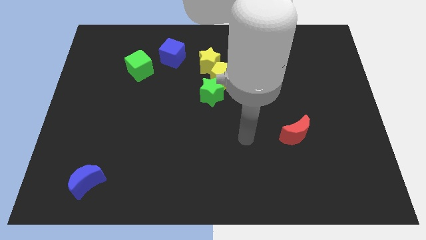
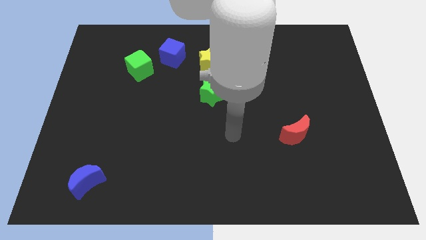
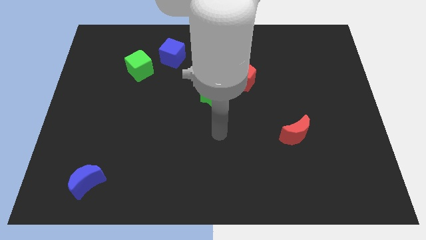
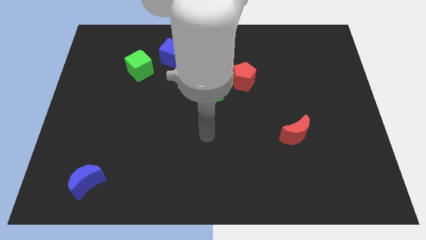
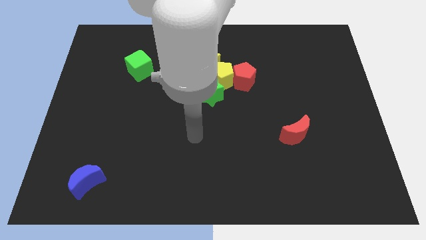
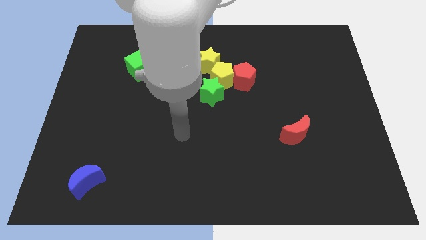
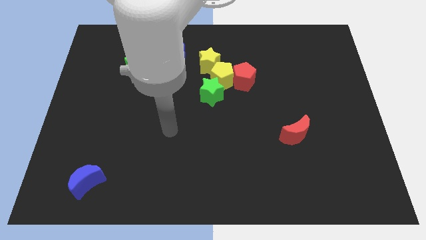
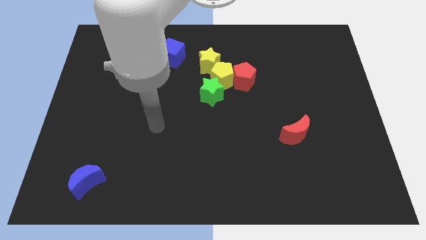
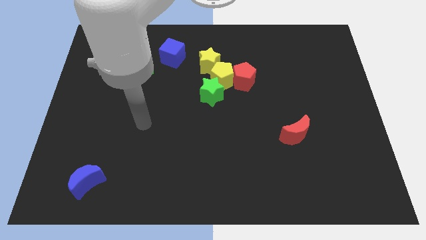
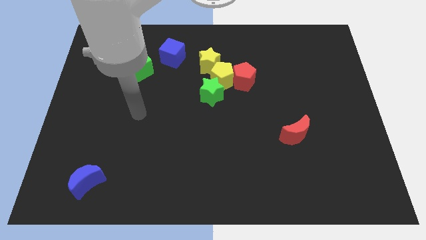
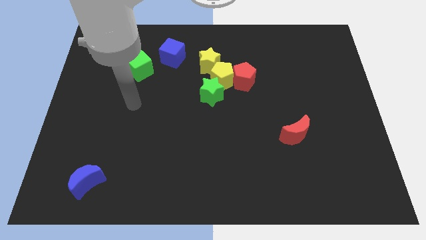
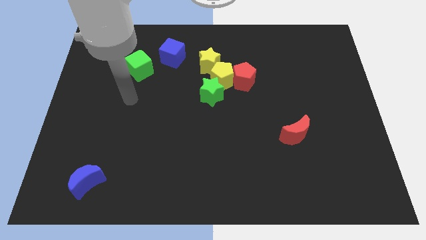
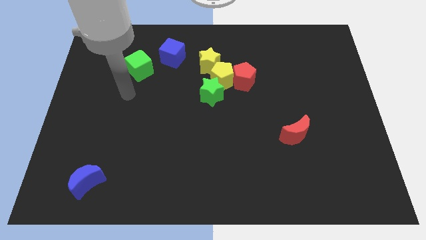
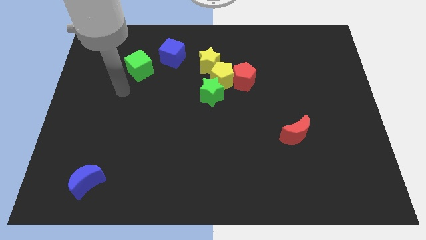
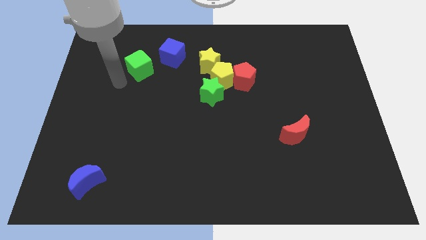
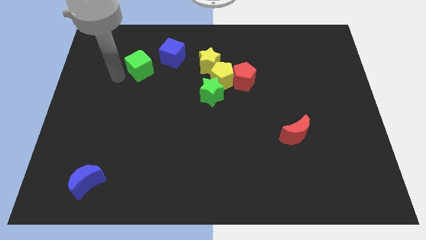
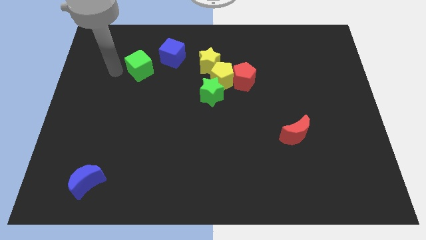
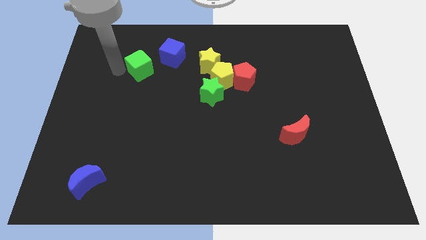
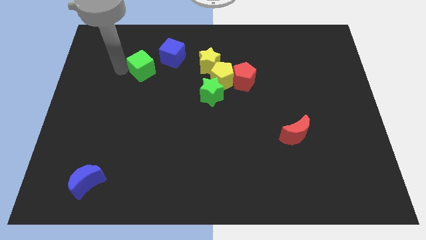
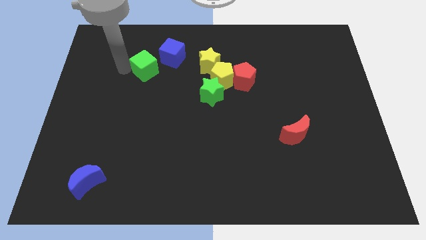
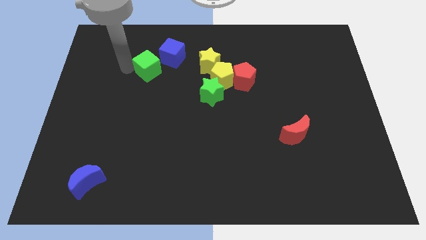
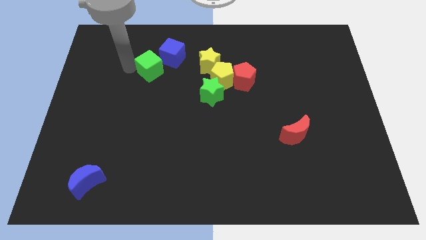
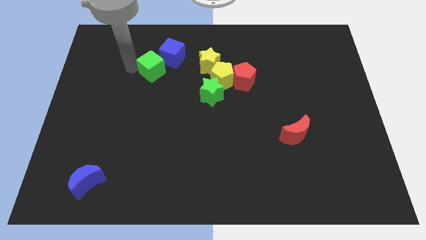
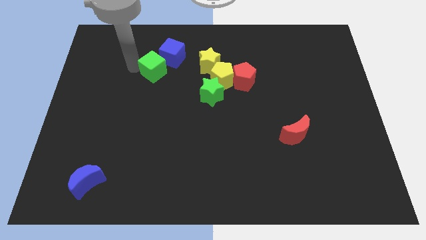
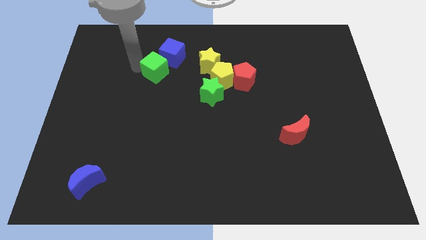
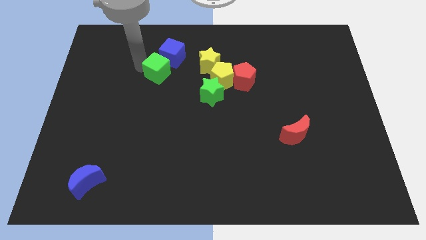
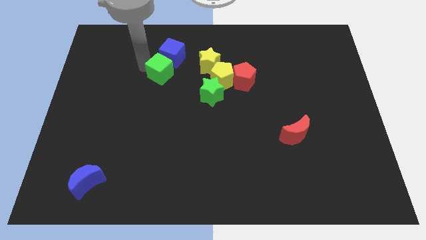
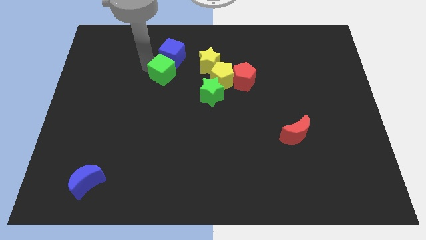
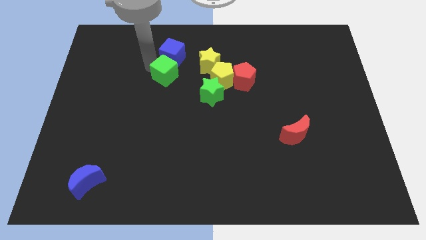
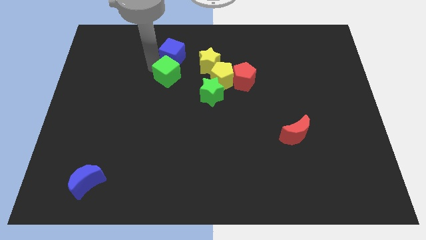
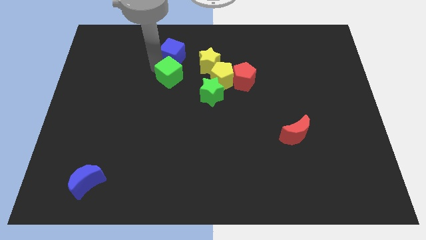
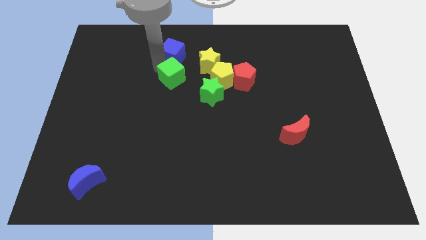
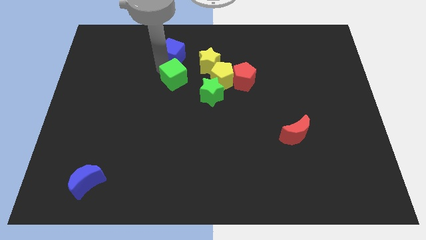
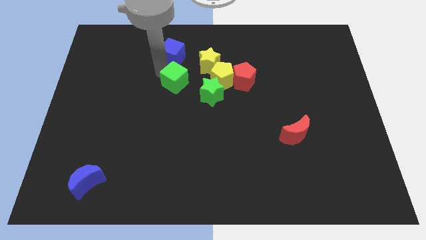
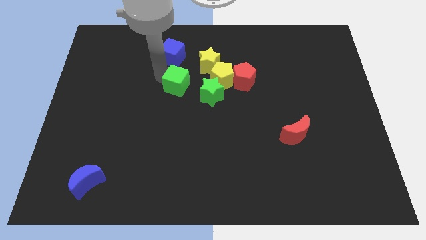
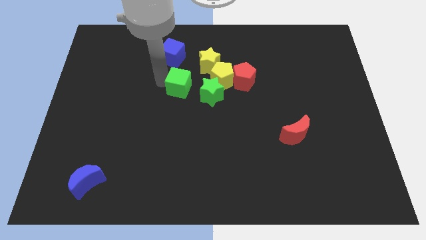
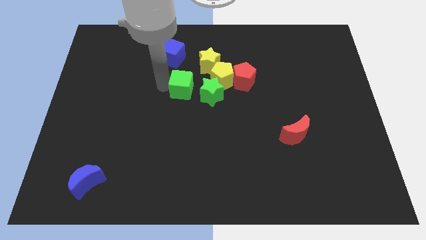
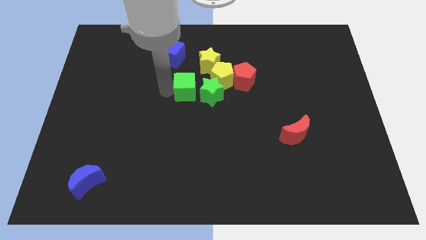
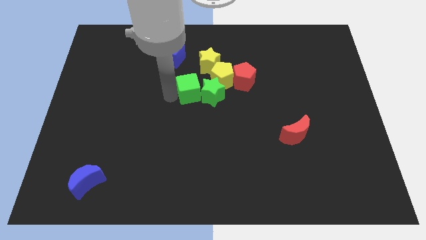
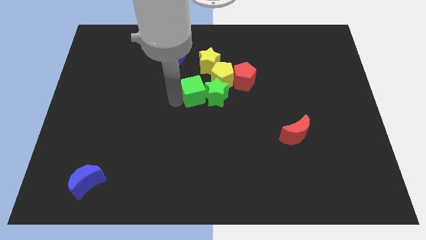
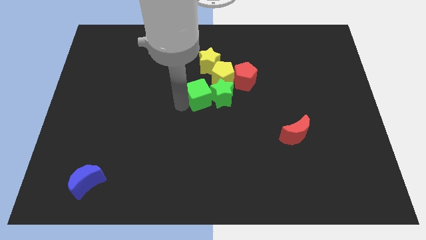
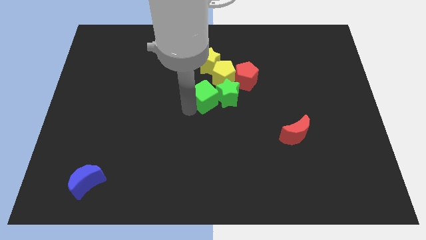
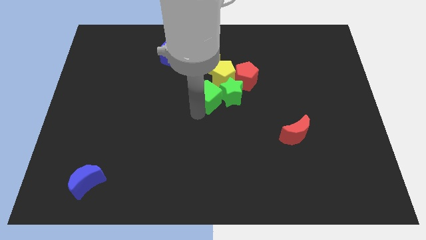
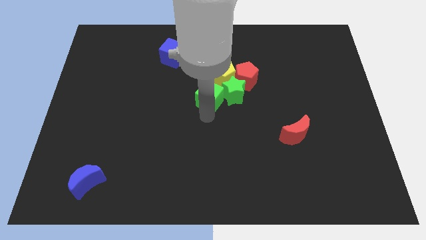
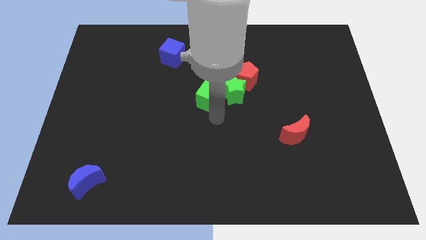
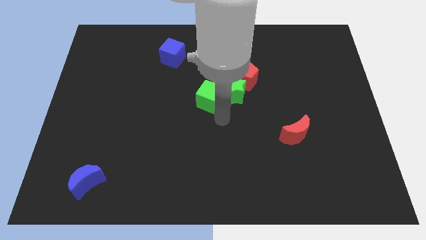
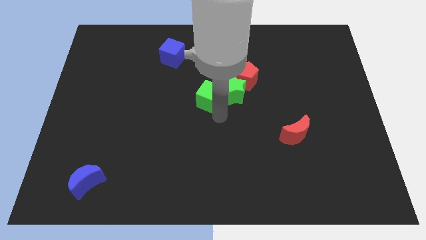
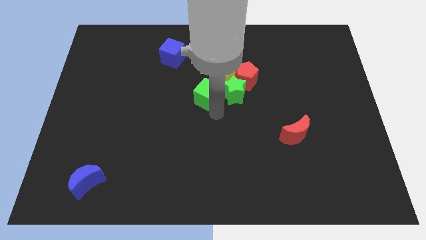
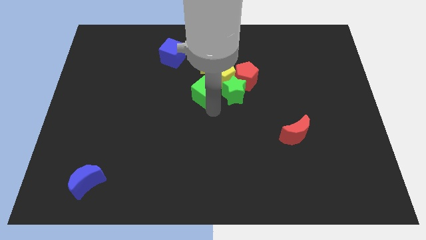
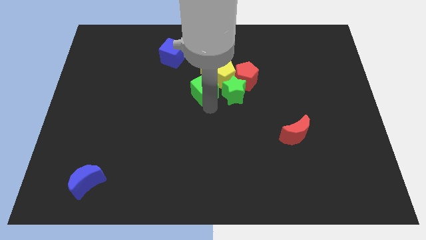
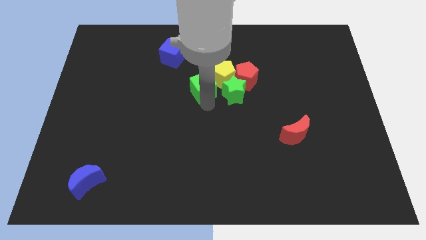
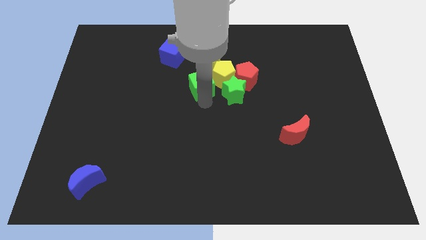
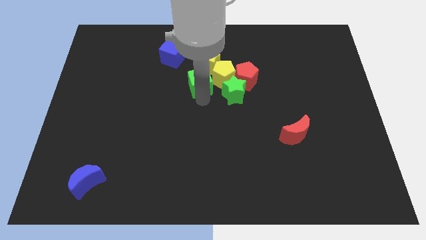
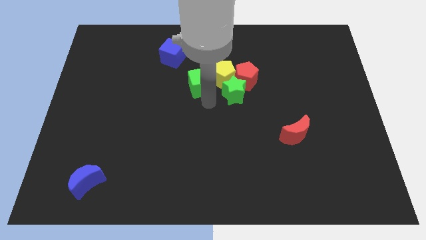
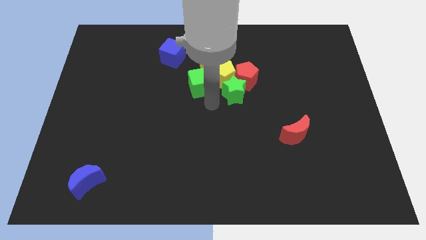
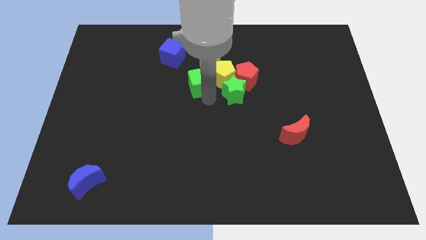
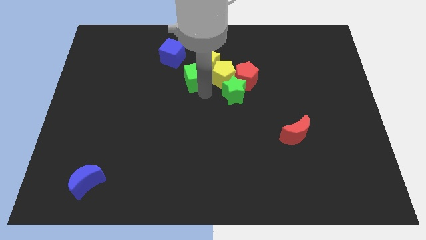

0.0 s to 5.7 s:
push the green cube towards the yellow star

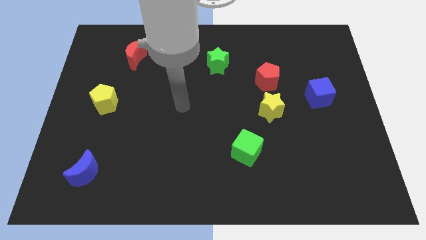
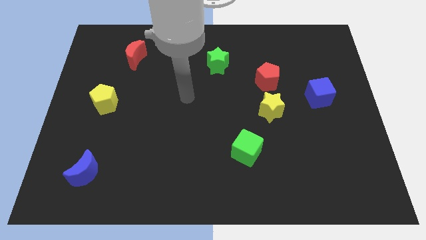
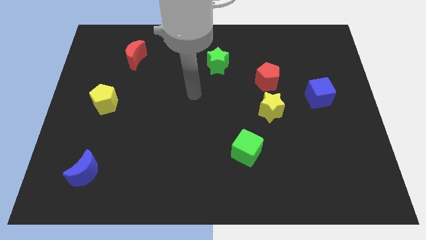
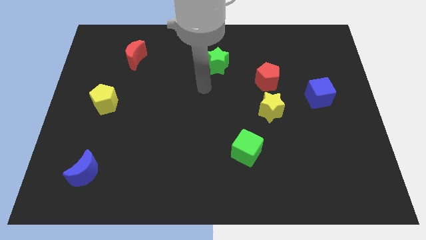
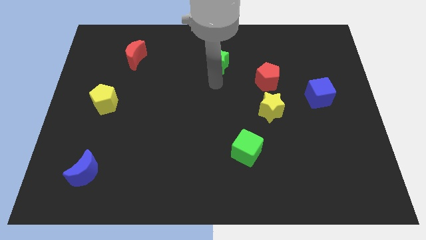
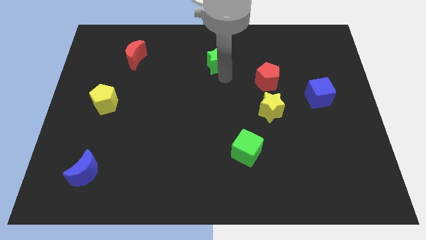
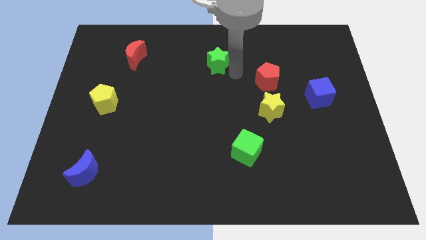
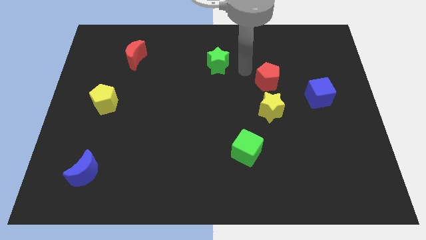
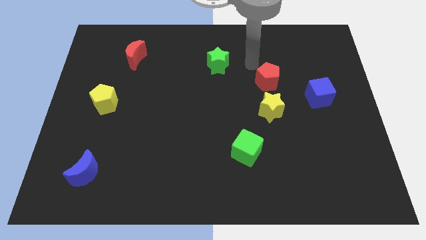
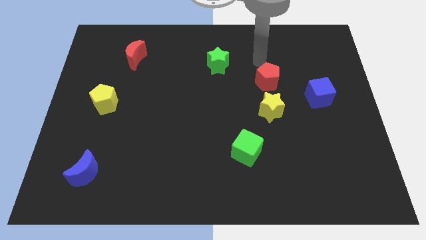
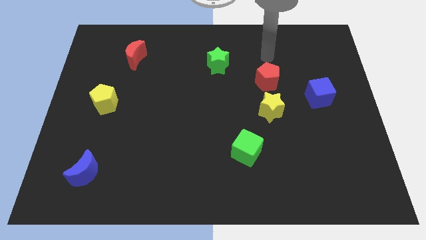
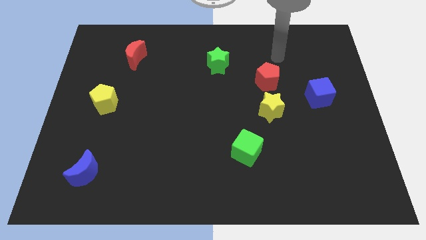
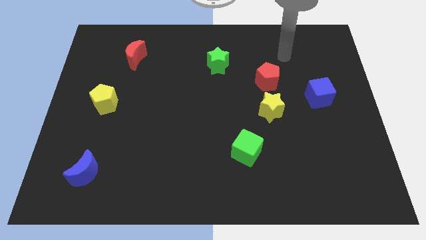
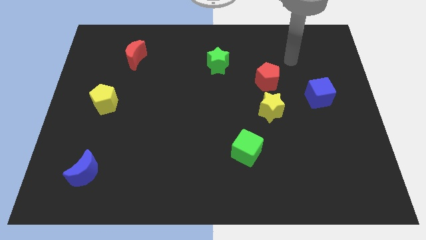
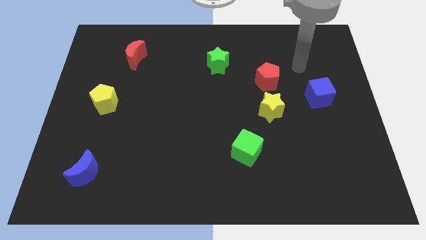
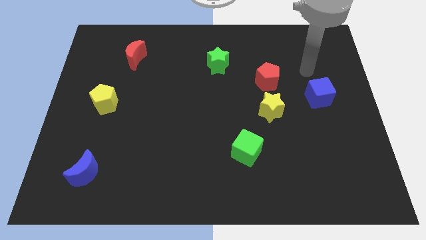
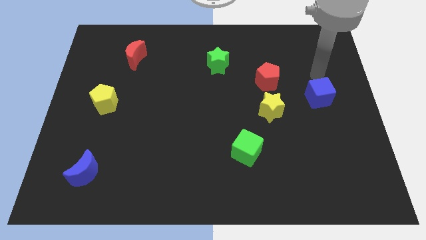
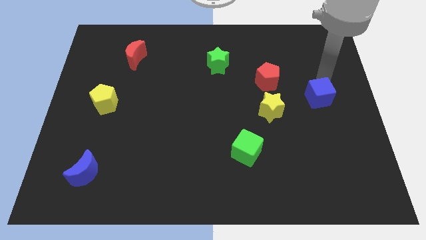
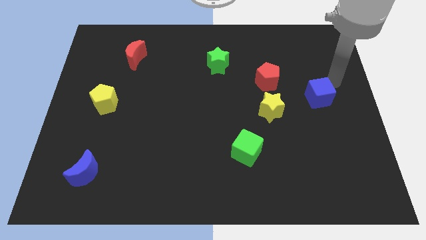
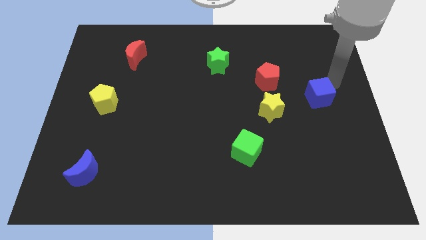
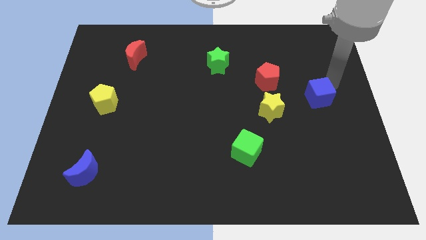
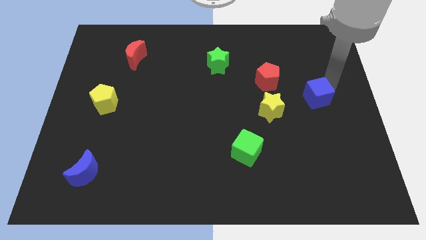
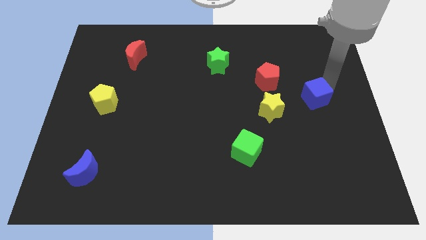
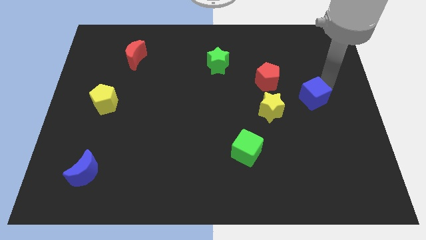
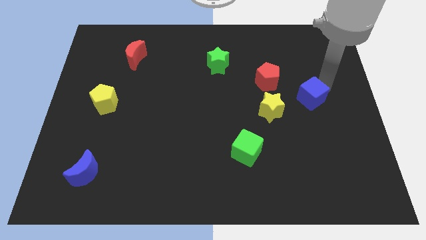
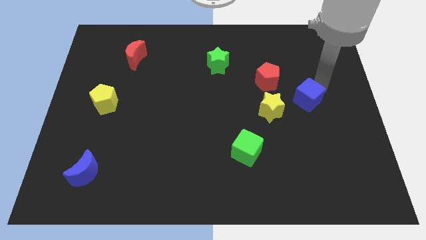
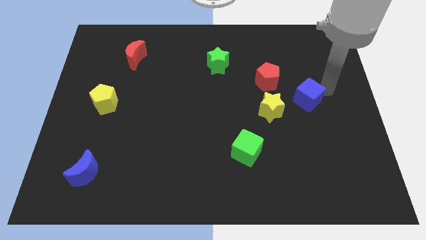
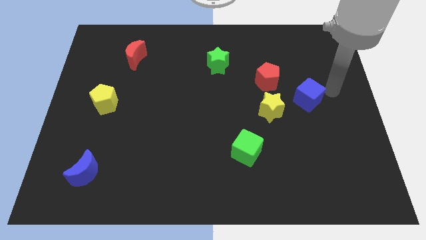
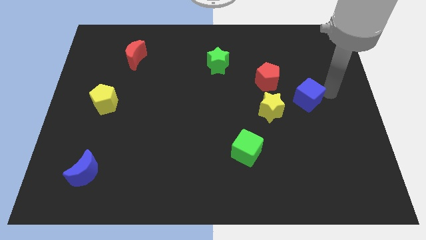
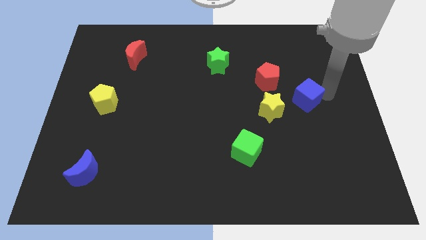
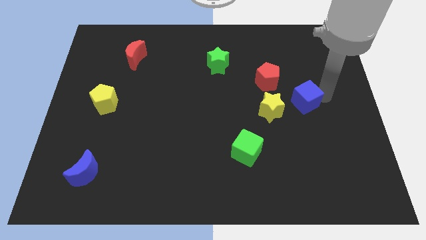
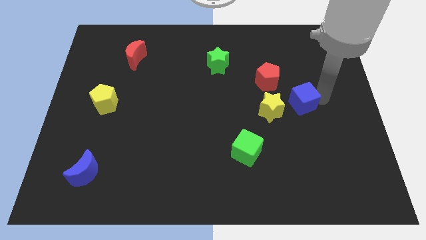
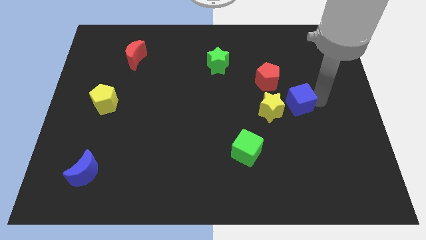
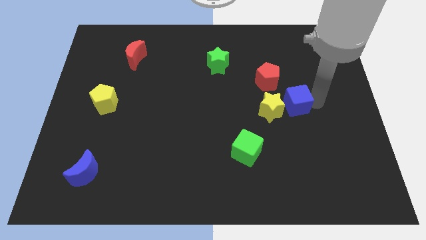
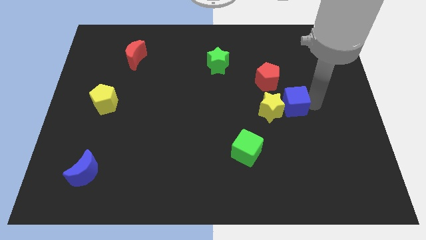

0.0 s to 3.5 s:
move the blue cube close to the yellow star
